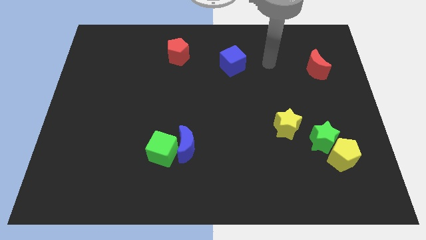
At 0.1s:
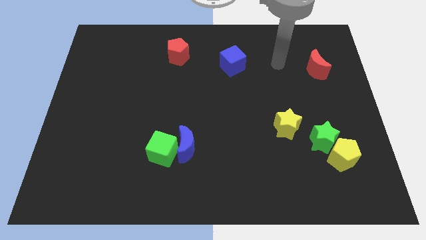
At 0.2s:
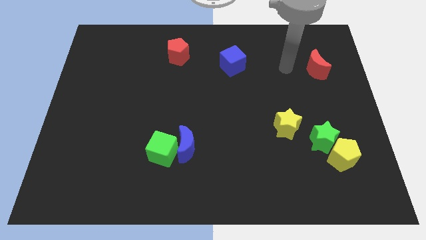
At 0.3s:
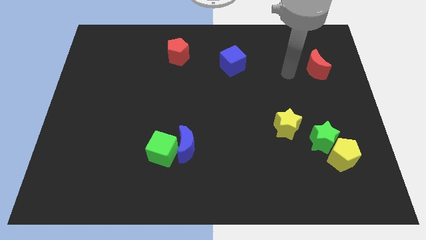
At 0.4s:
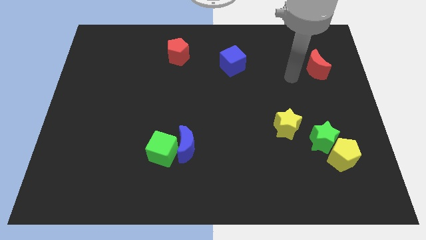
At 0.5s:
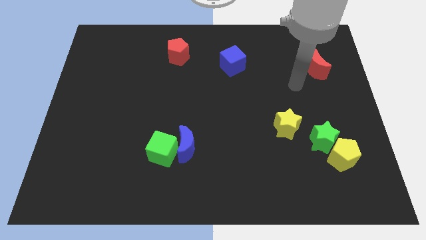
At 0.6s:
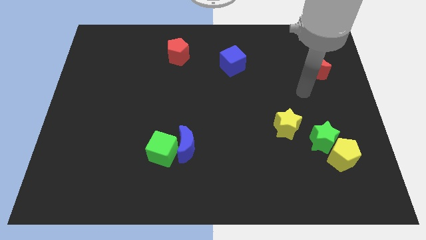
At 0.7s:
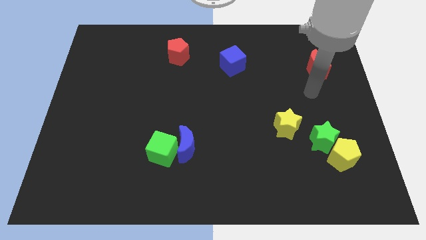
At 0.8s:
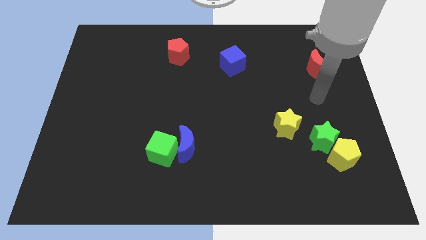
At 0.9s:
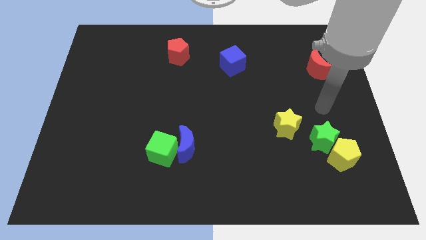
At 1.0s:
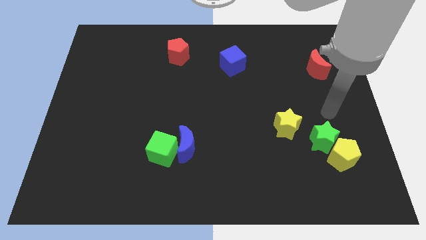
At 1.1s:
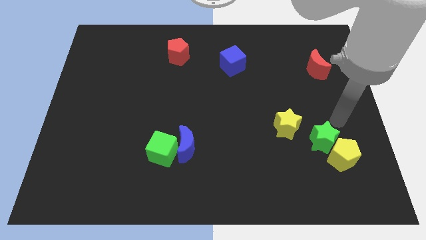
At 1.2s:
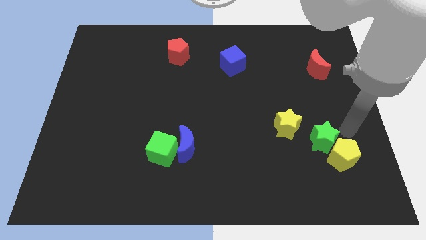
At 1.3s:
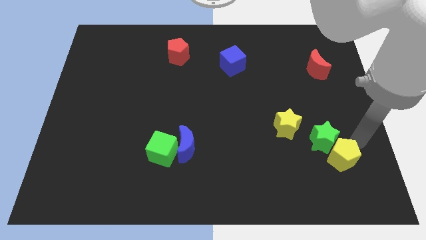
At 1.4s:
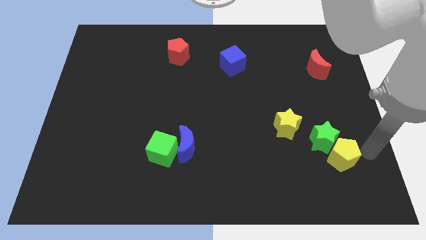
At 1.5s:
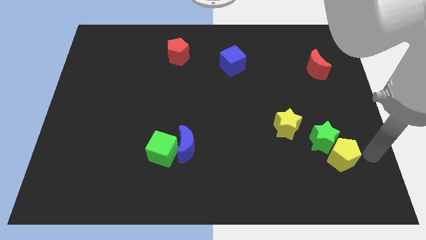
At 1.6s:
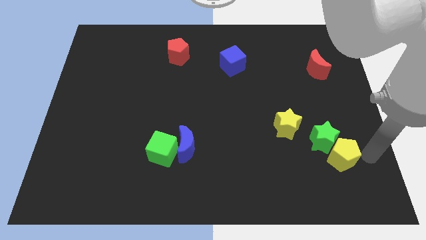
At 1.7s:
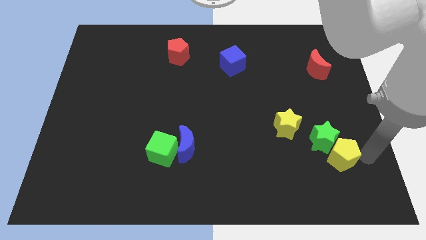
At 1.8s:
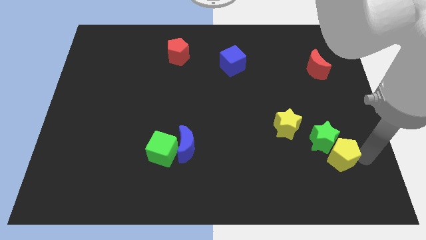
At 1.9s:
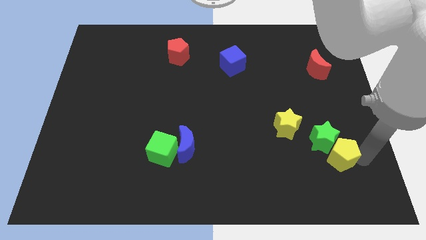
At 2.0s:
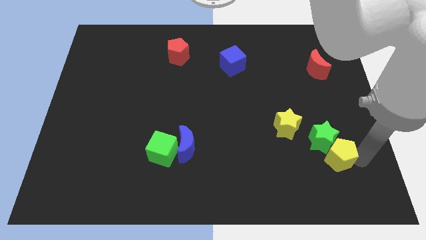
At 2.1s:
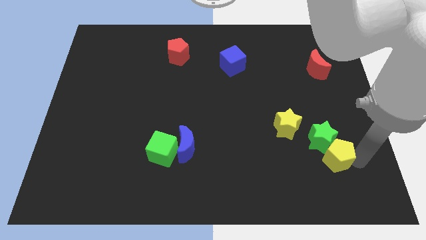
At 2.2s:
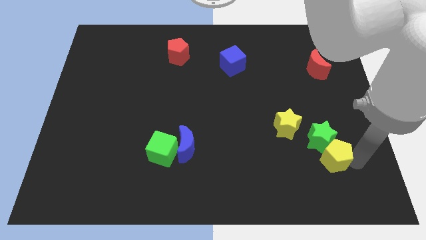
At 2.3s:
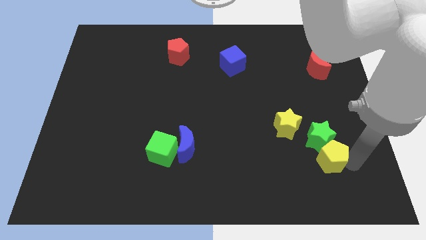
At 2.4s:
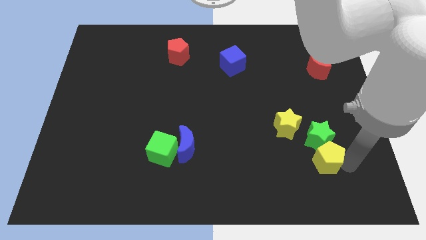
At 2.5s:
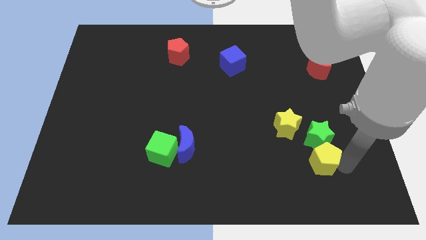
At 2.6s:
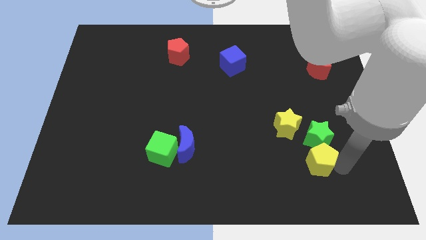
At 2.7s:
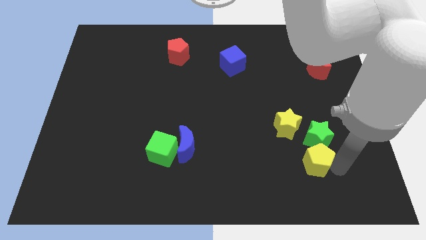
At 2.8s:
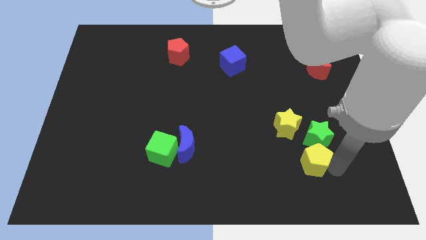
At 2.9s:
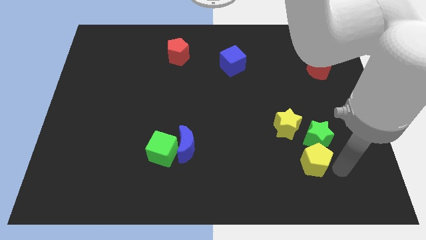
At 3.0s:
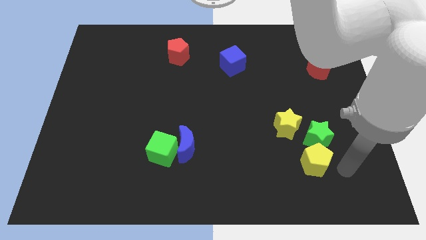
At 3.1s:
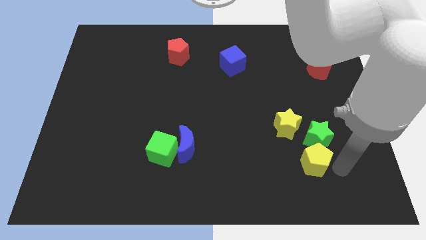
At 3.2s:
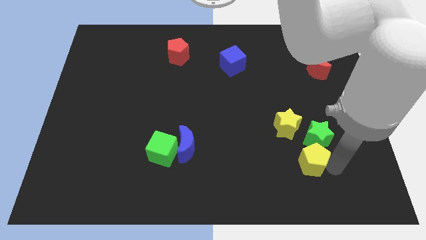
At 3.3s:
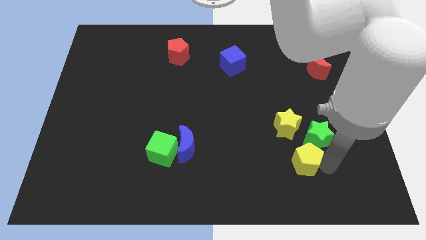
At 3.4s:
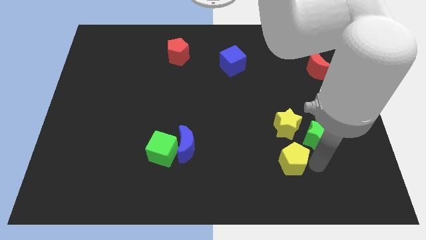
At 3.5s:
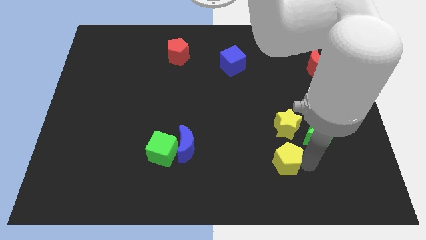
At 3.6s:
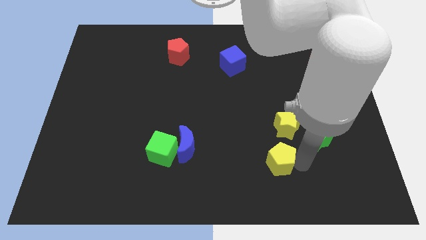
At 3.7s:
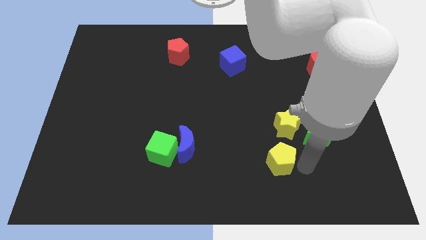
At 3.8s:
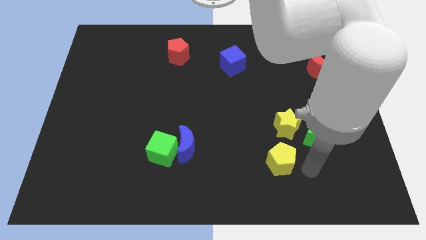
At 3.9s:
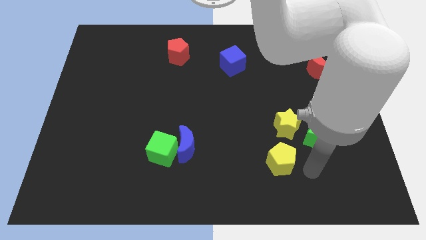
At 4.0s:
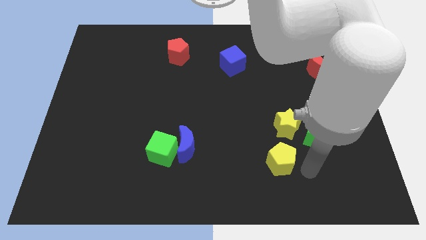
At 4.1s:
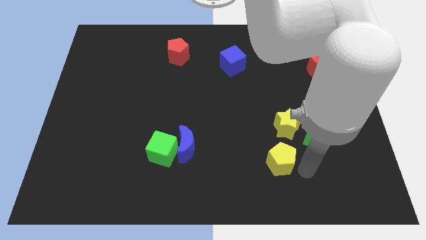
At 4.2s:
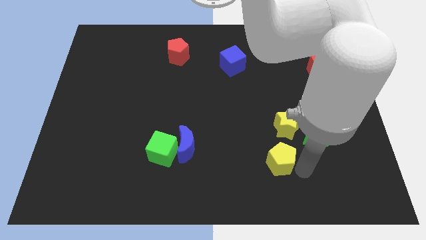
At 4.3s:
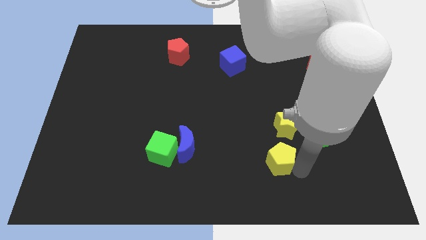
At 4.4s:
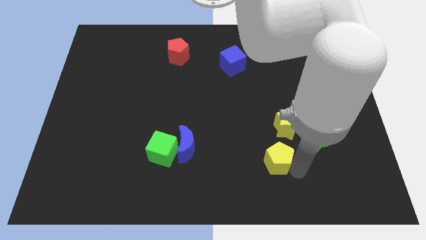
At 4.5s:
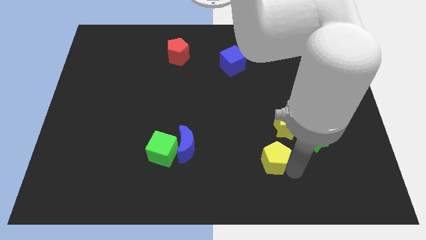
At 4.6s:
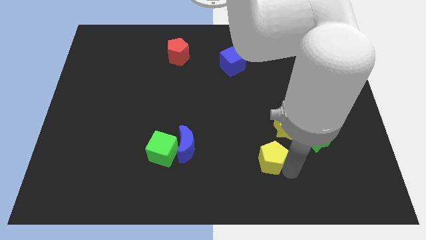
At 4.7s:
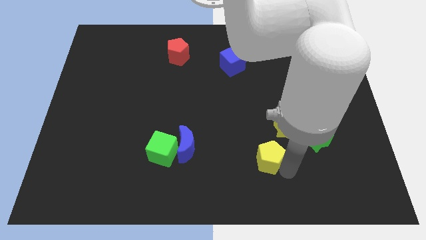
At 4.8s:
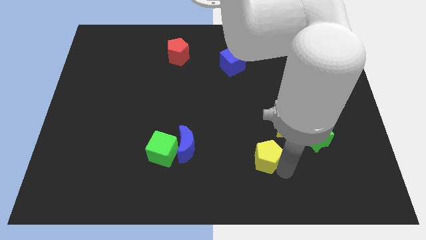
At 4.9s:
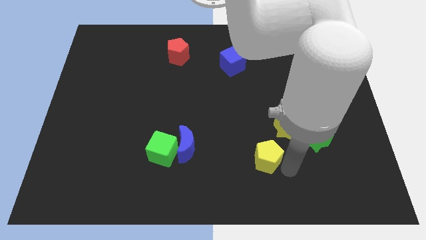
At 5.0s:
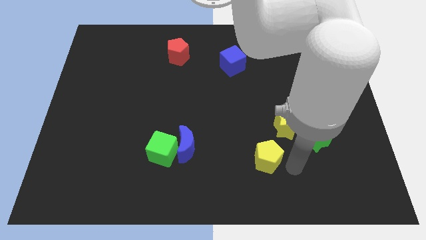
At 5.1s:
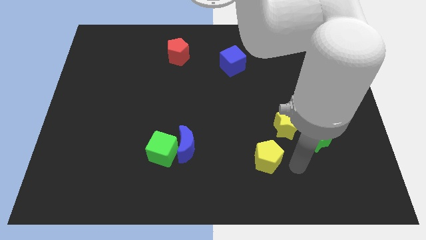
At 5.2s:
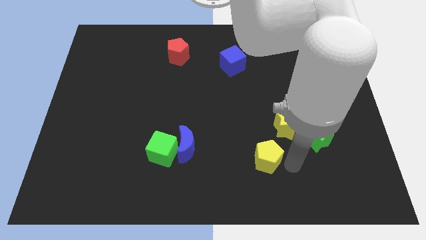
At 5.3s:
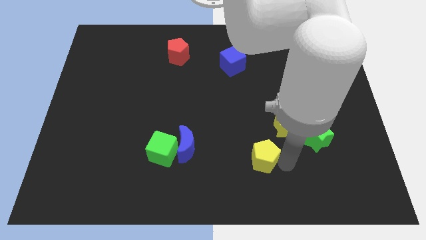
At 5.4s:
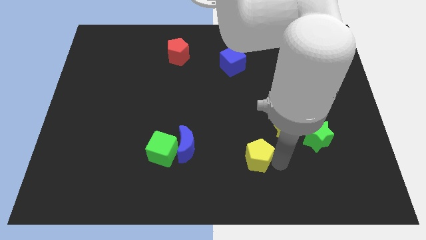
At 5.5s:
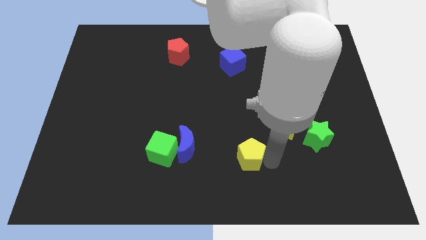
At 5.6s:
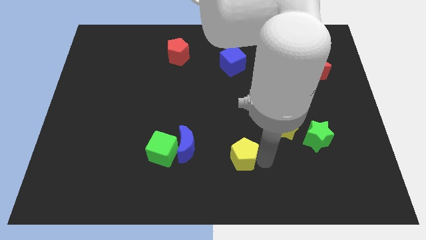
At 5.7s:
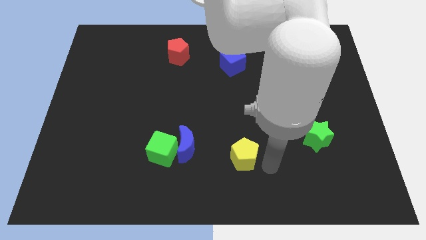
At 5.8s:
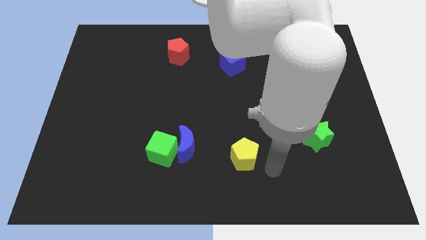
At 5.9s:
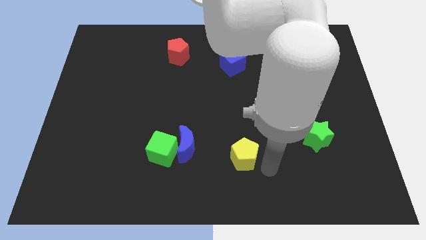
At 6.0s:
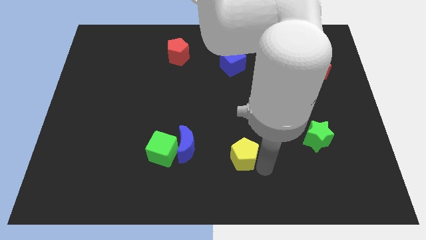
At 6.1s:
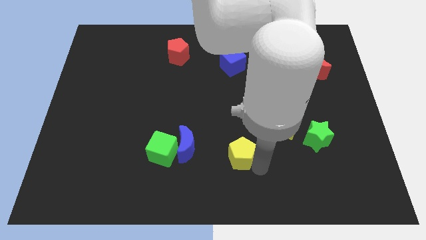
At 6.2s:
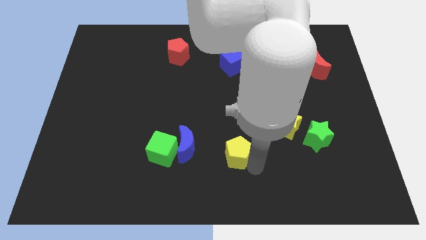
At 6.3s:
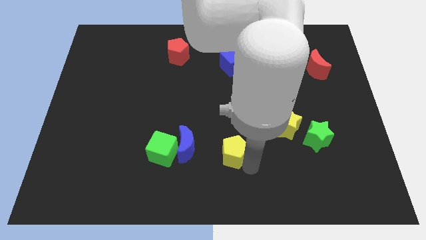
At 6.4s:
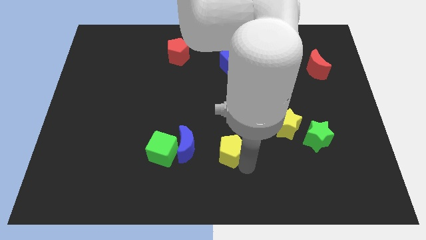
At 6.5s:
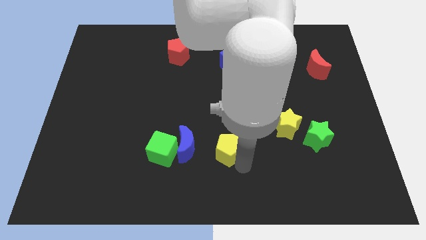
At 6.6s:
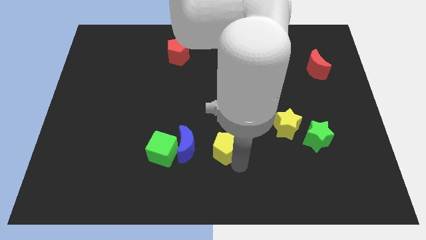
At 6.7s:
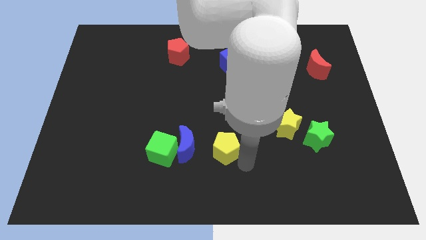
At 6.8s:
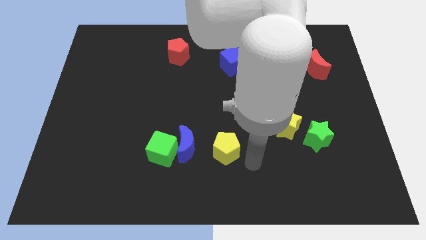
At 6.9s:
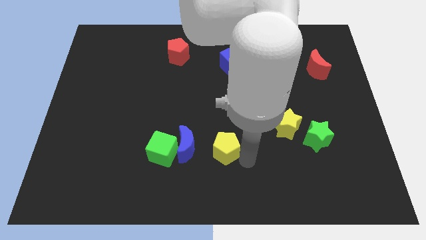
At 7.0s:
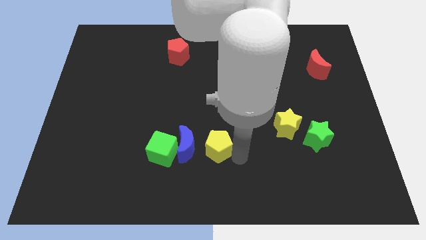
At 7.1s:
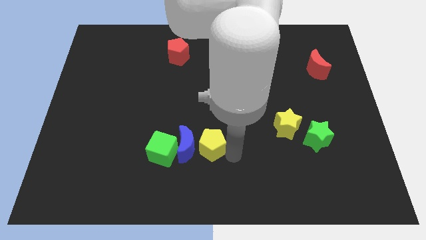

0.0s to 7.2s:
move the yellow pentagon to the blue moon
